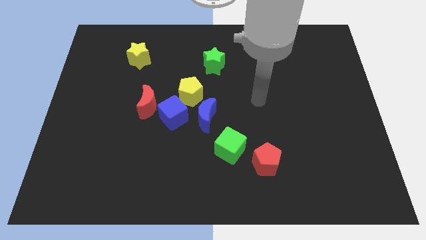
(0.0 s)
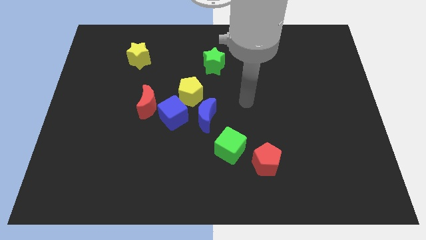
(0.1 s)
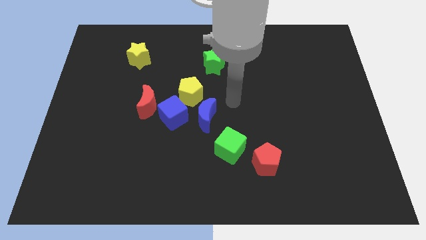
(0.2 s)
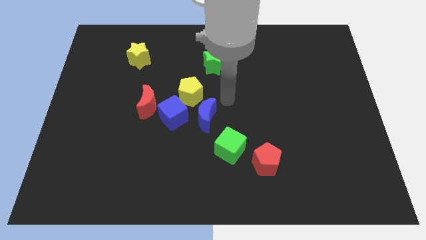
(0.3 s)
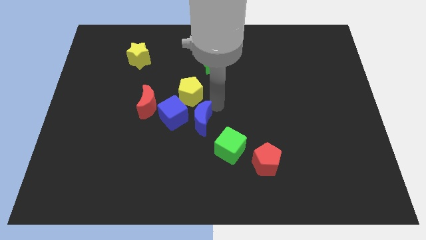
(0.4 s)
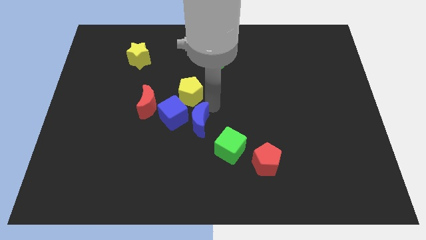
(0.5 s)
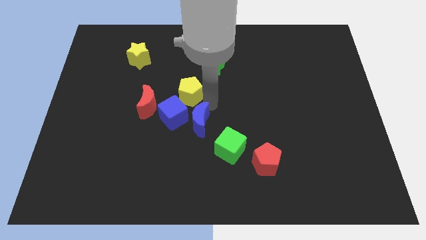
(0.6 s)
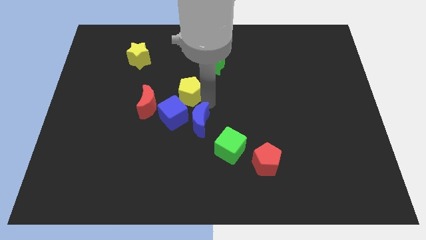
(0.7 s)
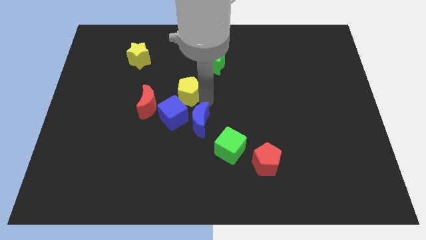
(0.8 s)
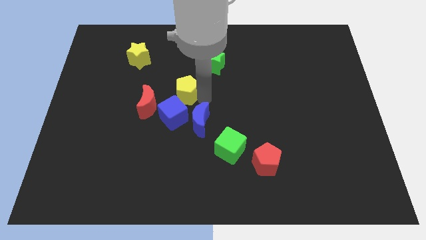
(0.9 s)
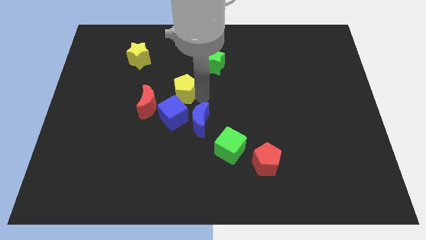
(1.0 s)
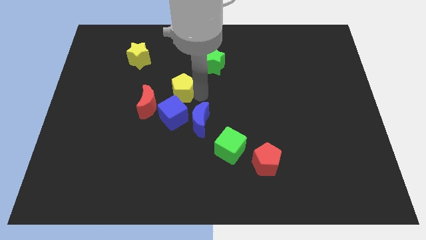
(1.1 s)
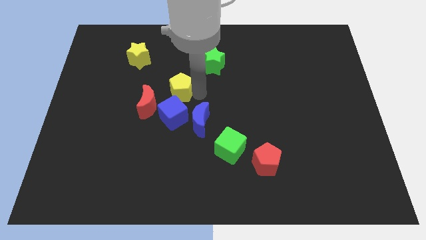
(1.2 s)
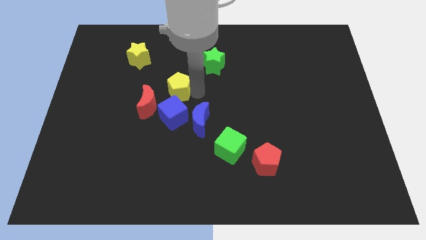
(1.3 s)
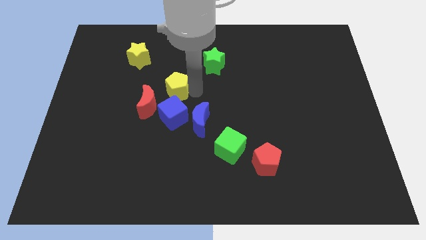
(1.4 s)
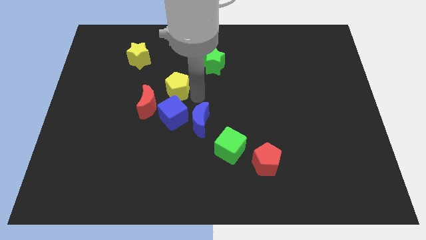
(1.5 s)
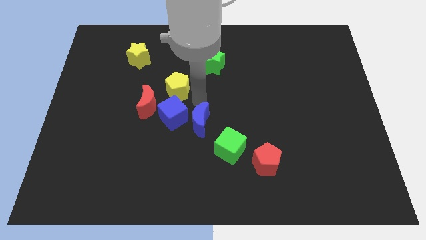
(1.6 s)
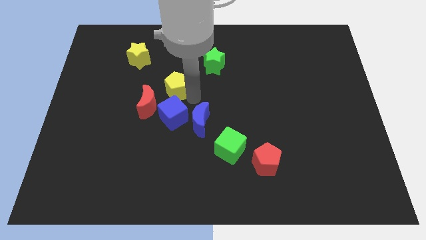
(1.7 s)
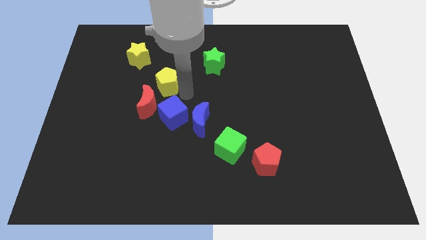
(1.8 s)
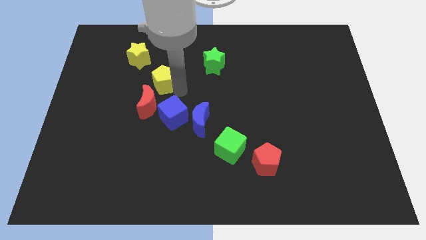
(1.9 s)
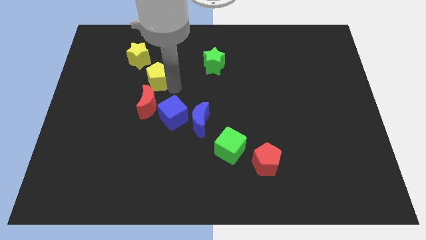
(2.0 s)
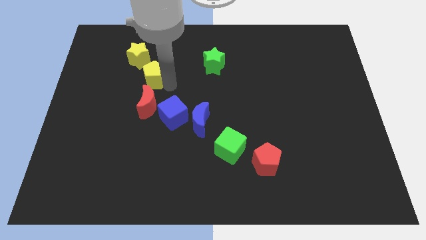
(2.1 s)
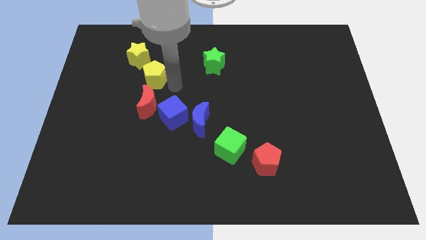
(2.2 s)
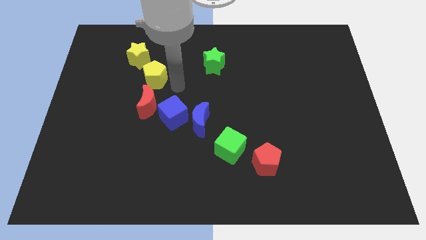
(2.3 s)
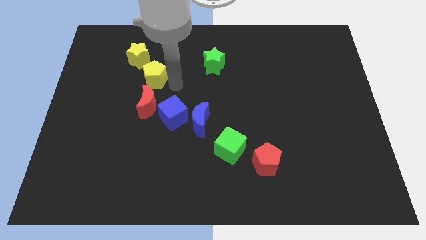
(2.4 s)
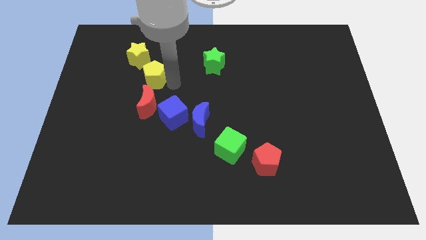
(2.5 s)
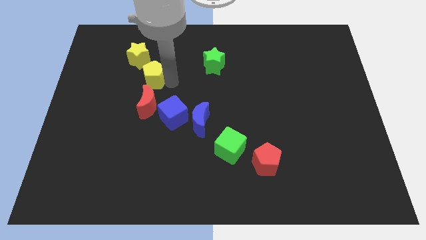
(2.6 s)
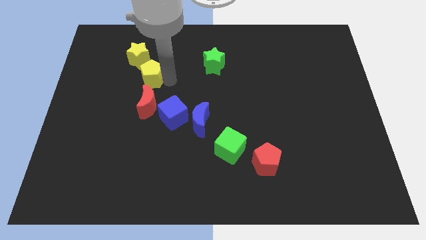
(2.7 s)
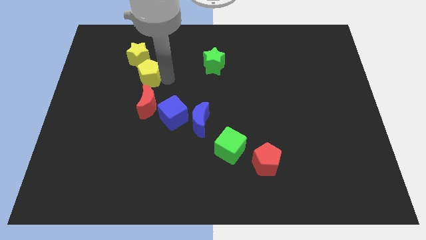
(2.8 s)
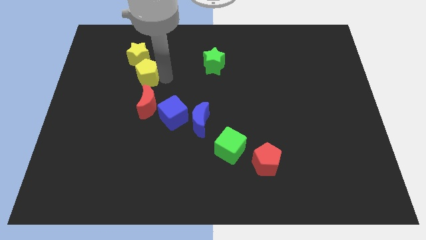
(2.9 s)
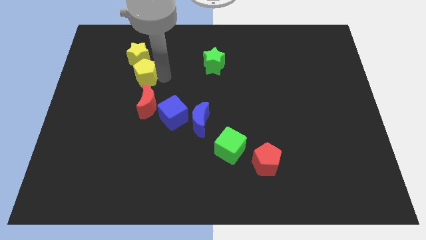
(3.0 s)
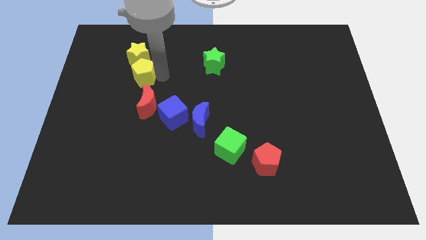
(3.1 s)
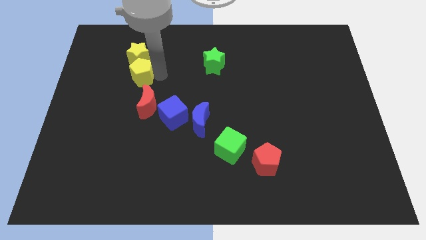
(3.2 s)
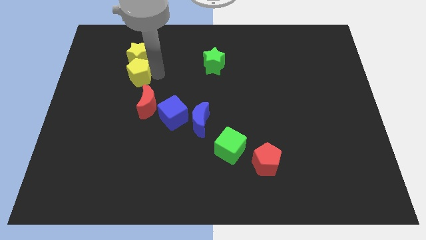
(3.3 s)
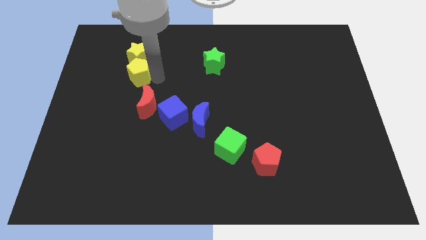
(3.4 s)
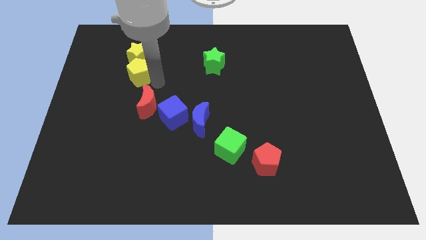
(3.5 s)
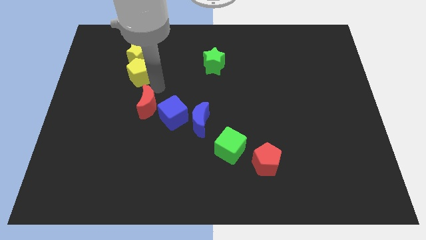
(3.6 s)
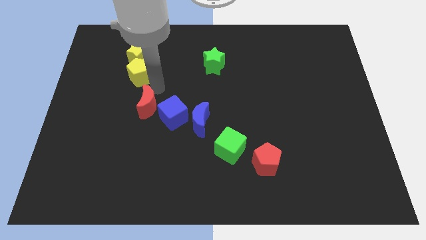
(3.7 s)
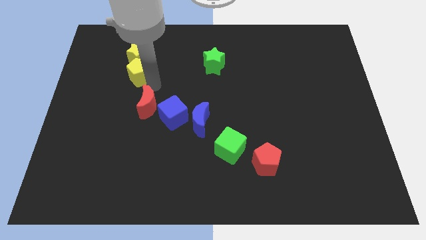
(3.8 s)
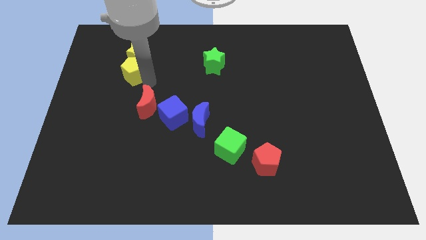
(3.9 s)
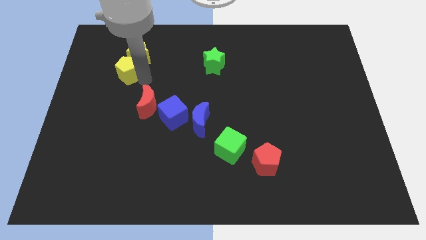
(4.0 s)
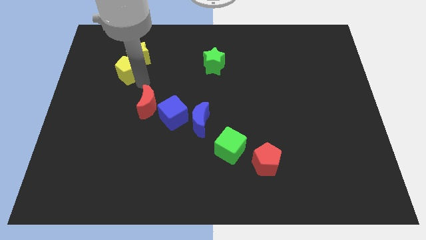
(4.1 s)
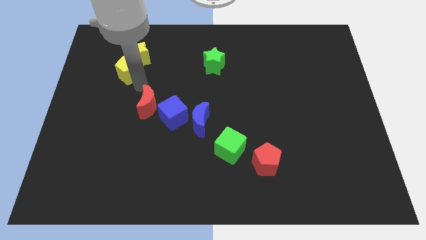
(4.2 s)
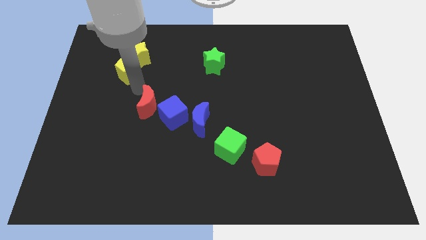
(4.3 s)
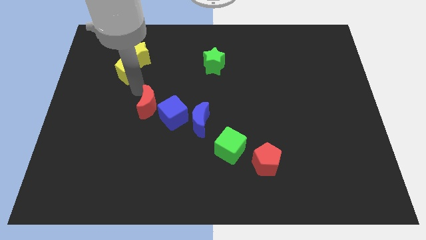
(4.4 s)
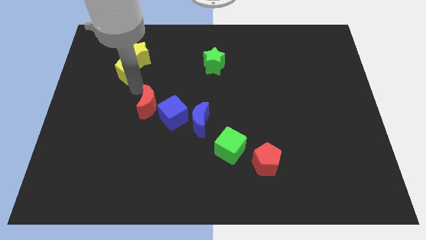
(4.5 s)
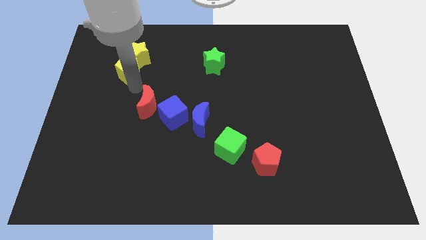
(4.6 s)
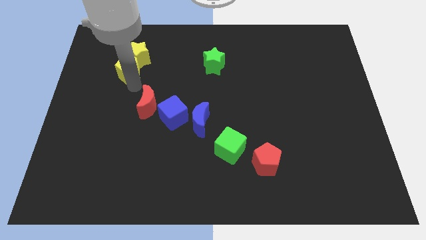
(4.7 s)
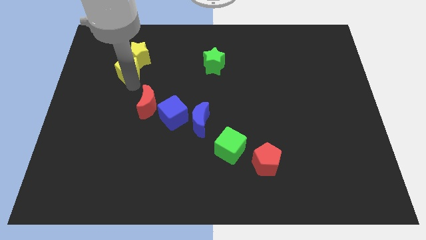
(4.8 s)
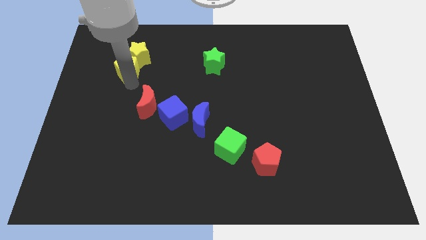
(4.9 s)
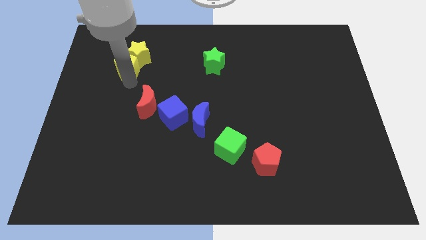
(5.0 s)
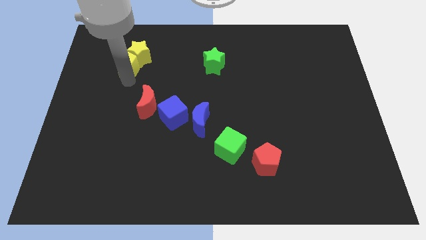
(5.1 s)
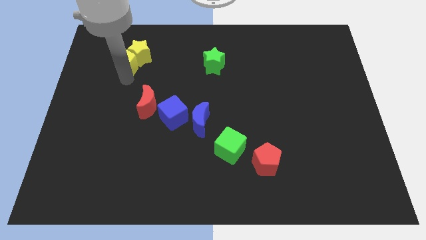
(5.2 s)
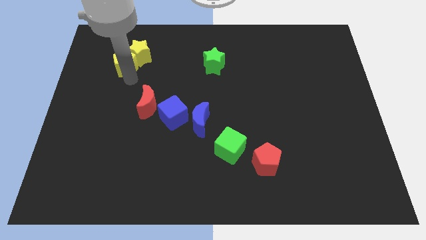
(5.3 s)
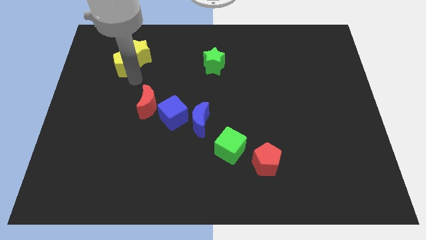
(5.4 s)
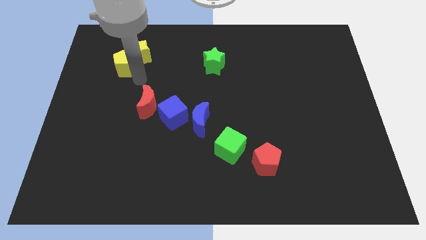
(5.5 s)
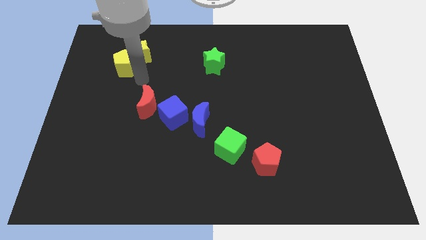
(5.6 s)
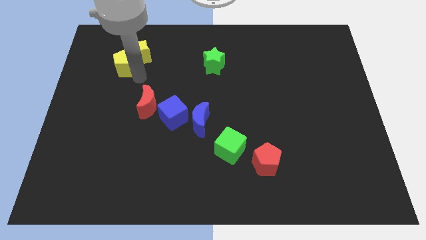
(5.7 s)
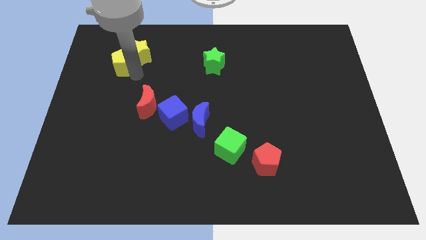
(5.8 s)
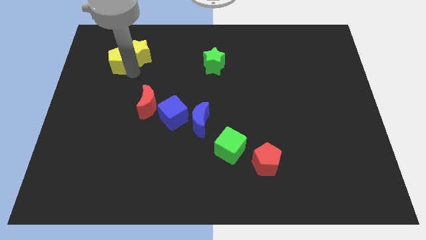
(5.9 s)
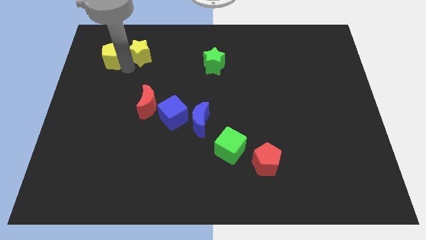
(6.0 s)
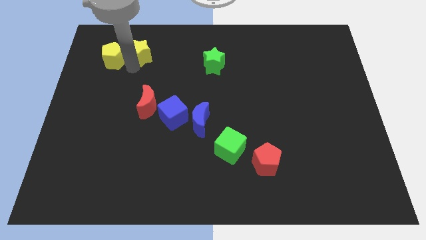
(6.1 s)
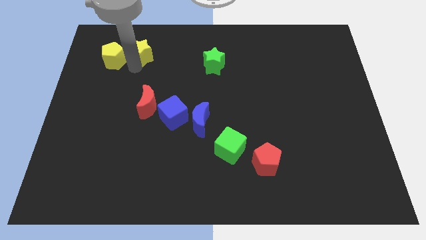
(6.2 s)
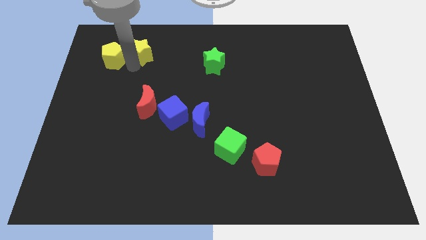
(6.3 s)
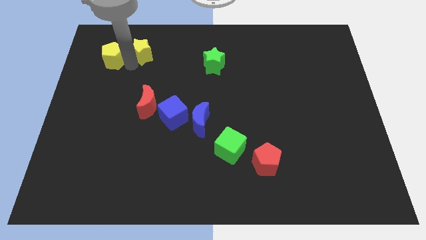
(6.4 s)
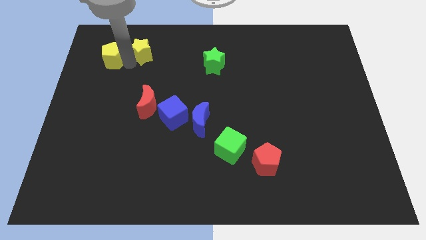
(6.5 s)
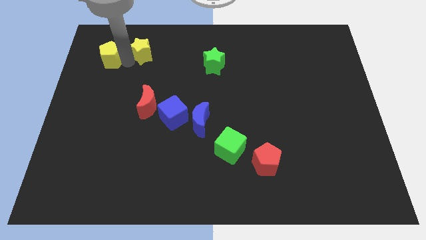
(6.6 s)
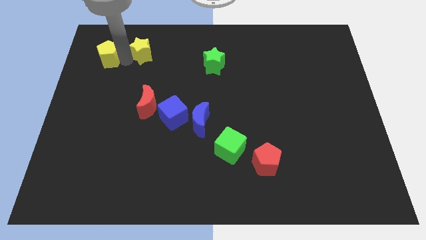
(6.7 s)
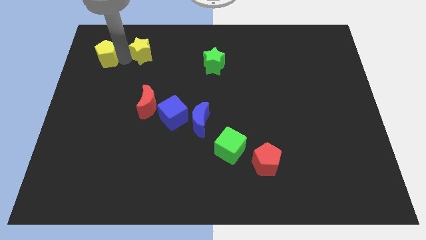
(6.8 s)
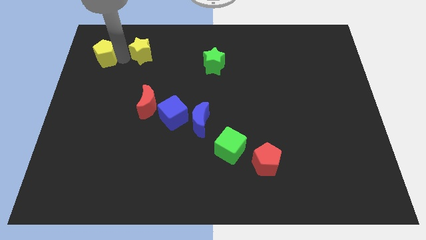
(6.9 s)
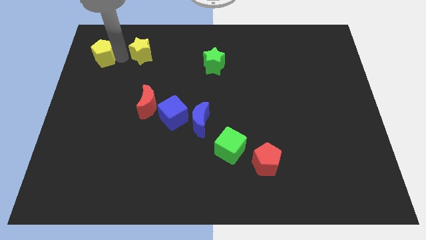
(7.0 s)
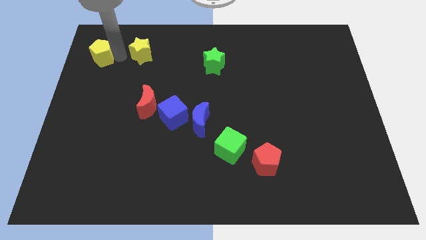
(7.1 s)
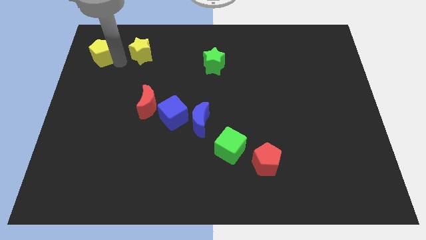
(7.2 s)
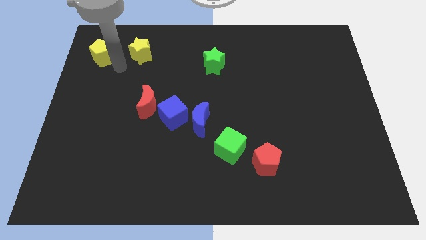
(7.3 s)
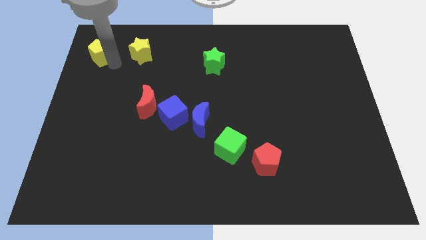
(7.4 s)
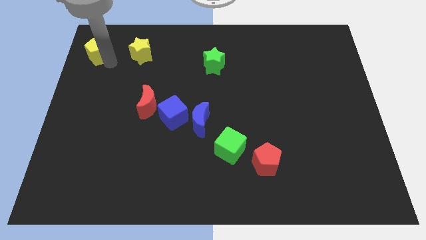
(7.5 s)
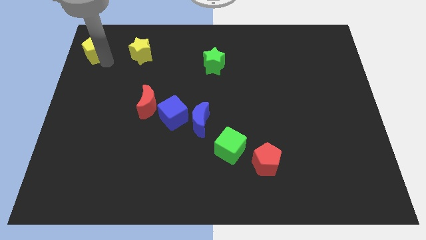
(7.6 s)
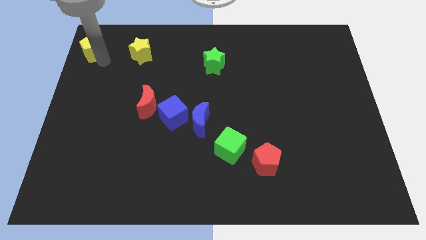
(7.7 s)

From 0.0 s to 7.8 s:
push the yellow pentagon to the upper left corner
